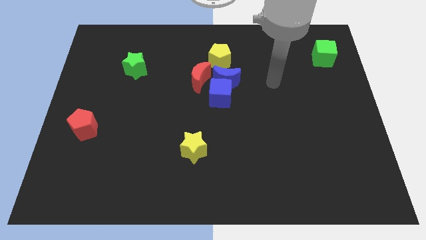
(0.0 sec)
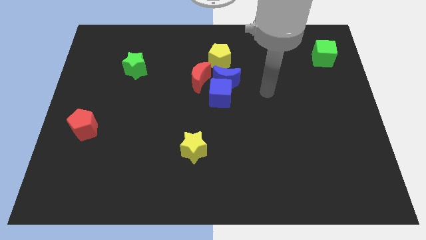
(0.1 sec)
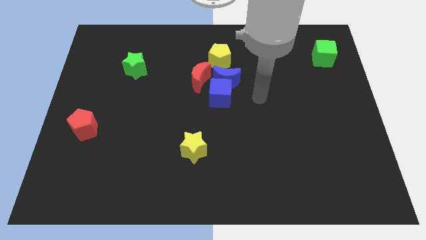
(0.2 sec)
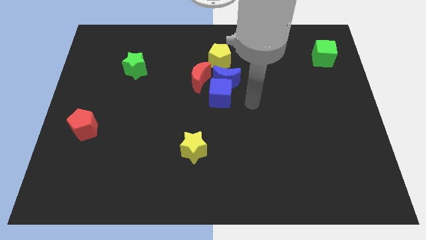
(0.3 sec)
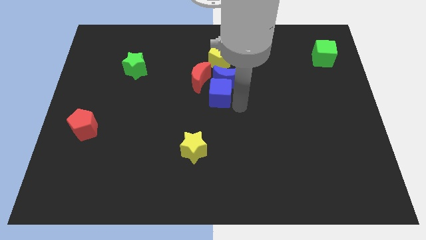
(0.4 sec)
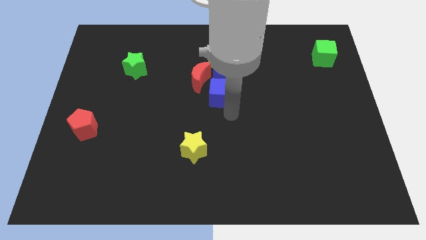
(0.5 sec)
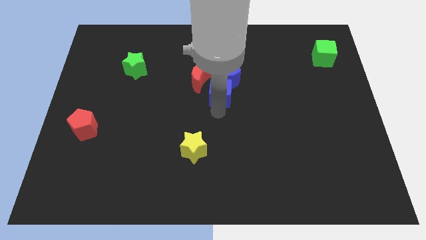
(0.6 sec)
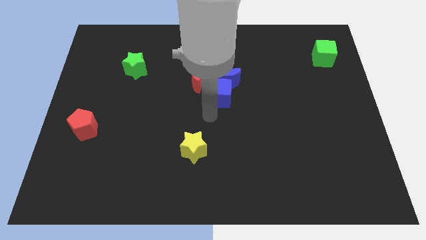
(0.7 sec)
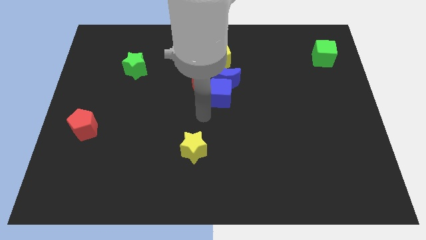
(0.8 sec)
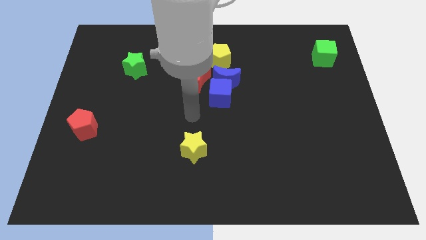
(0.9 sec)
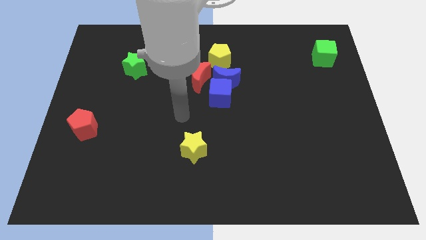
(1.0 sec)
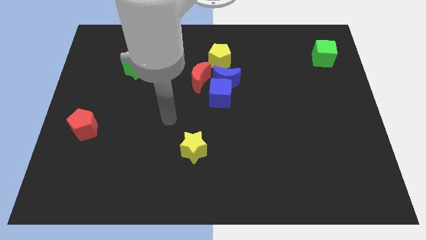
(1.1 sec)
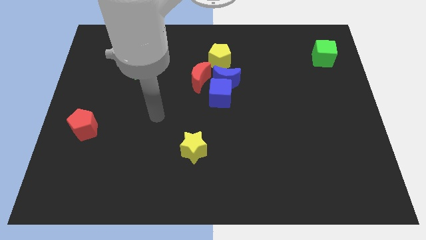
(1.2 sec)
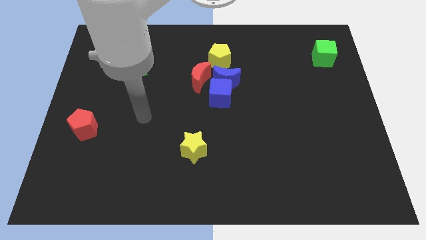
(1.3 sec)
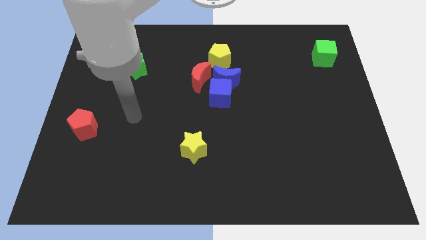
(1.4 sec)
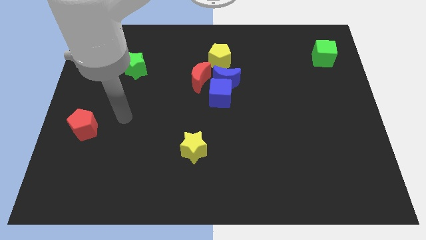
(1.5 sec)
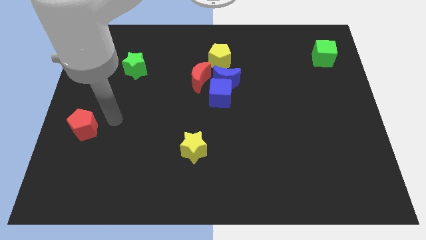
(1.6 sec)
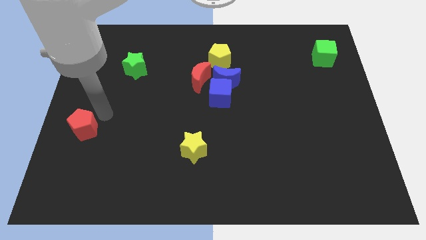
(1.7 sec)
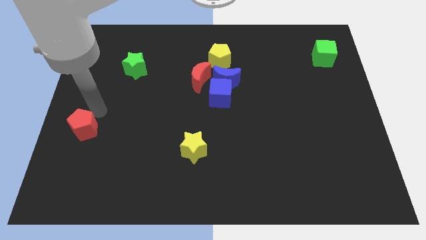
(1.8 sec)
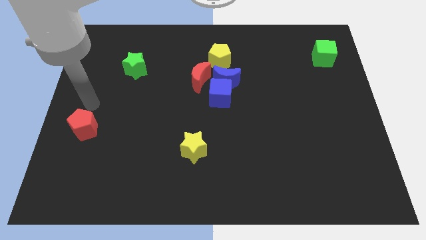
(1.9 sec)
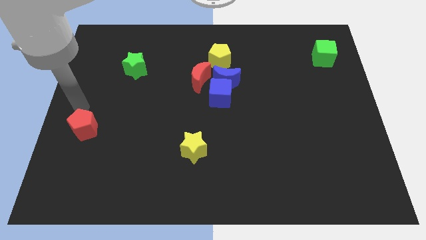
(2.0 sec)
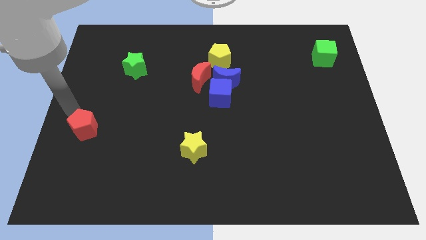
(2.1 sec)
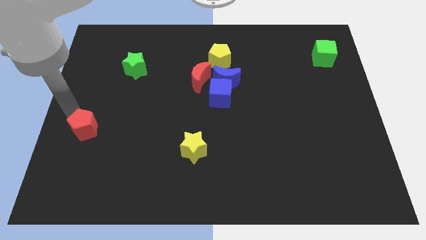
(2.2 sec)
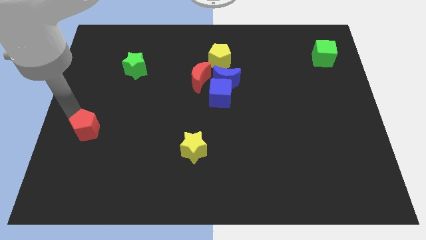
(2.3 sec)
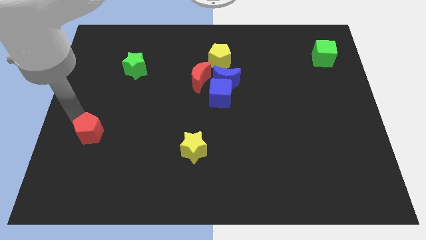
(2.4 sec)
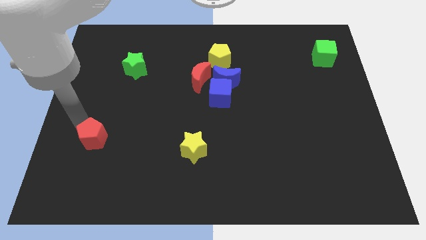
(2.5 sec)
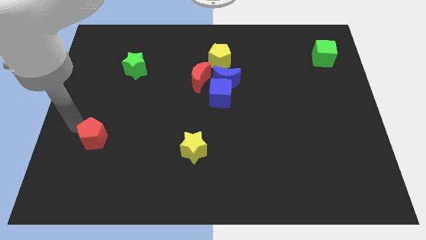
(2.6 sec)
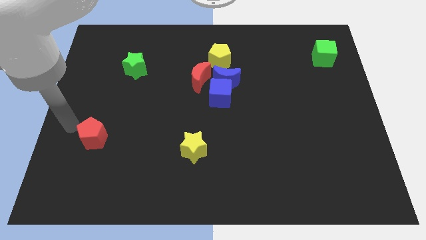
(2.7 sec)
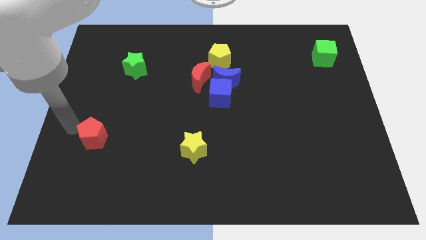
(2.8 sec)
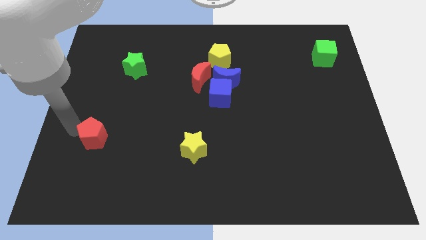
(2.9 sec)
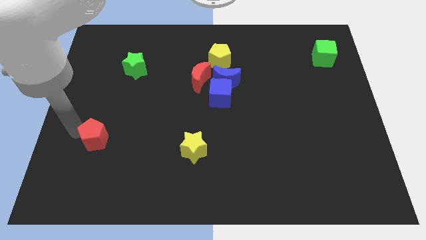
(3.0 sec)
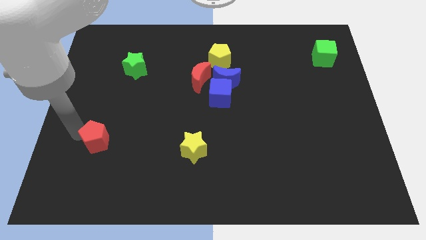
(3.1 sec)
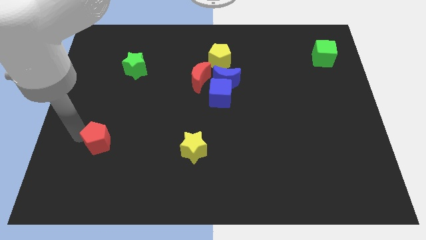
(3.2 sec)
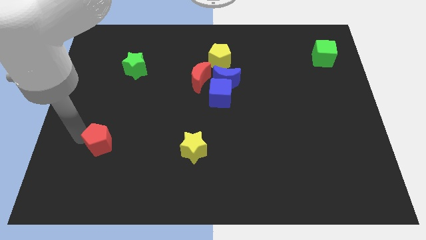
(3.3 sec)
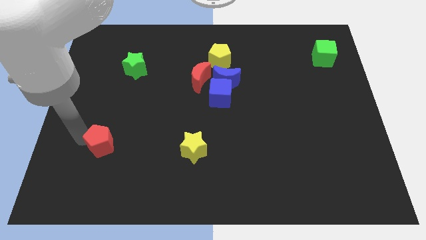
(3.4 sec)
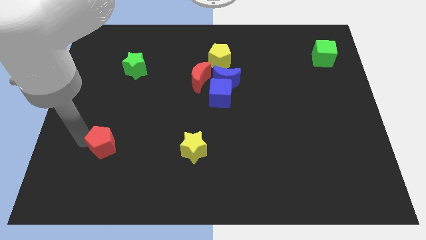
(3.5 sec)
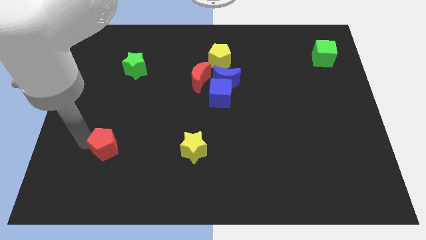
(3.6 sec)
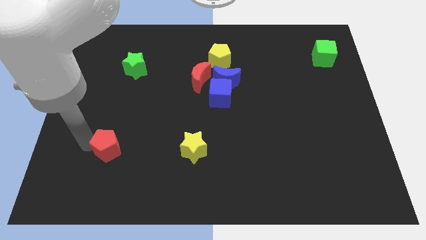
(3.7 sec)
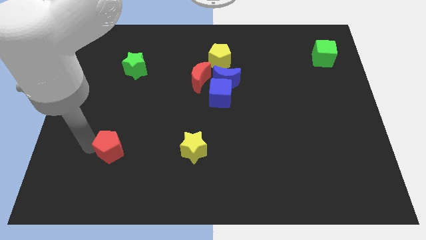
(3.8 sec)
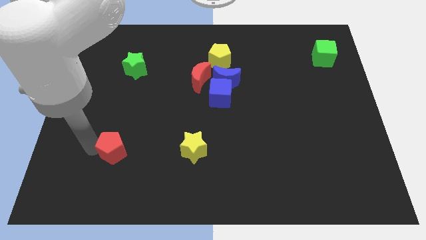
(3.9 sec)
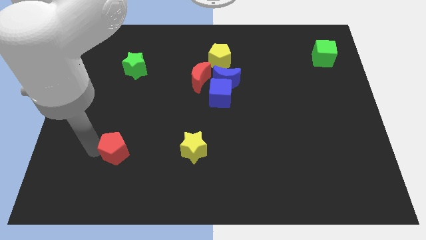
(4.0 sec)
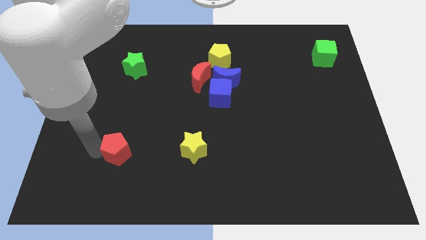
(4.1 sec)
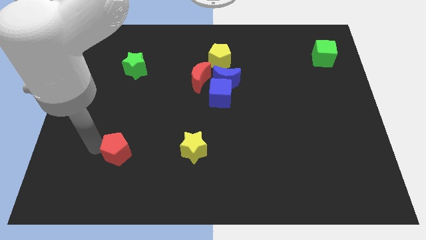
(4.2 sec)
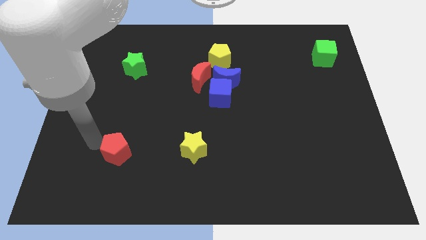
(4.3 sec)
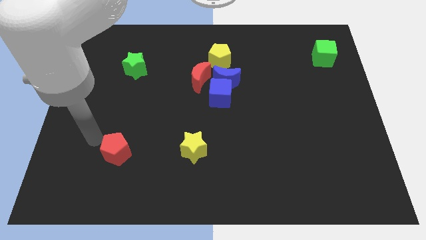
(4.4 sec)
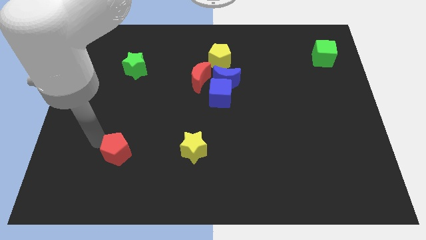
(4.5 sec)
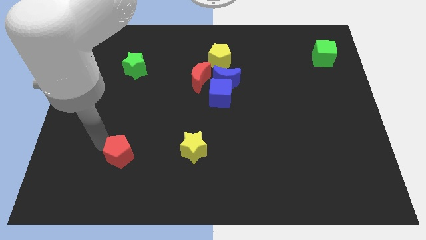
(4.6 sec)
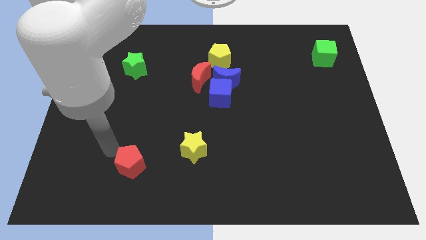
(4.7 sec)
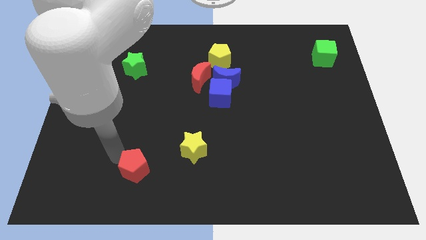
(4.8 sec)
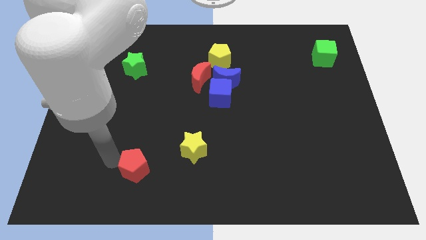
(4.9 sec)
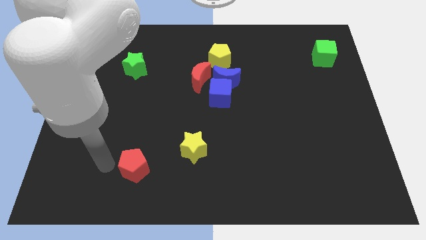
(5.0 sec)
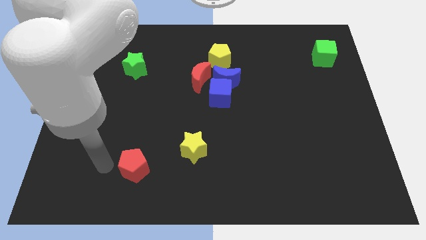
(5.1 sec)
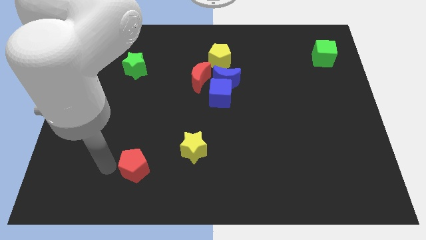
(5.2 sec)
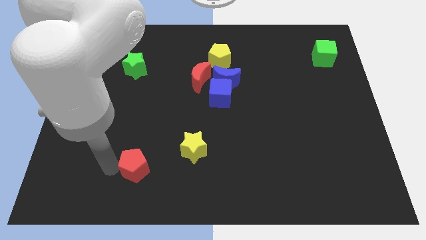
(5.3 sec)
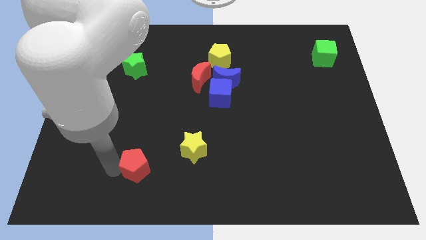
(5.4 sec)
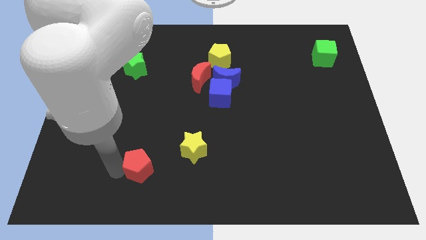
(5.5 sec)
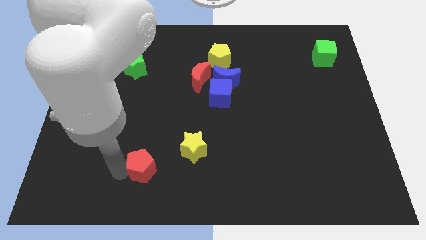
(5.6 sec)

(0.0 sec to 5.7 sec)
push the red pentagon diagonally down and to the left of the yellow star

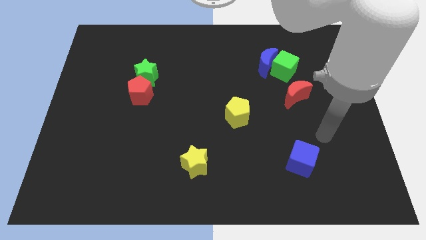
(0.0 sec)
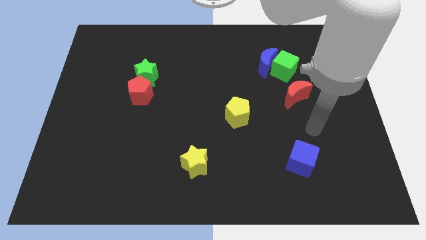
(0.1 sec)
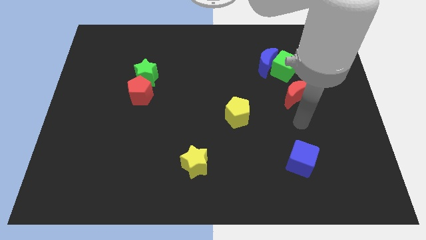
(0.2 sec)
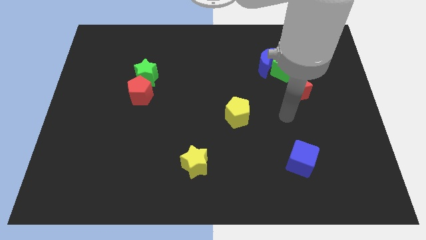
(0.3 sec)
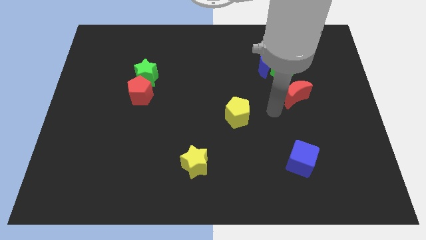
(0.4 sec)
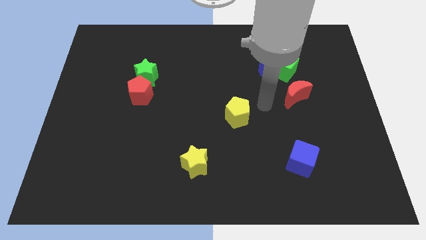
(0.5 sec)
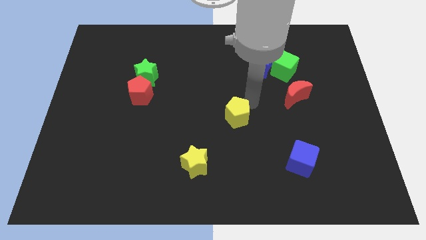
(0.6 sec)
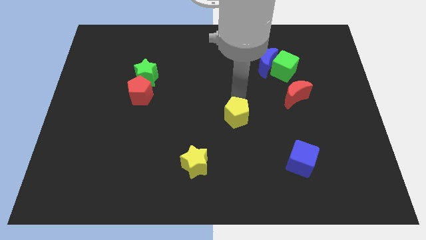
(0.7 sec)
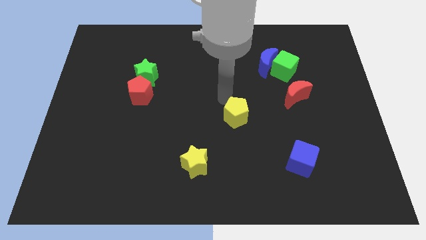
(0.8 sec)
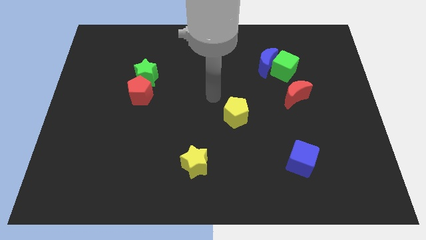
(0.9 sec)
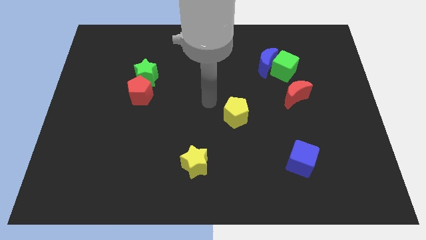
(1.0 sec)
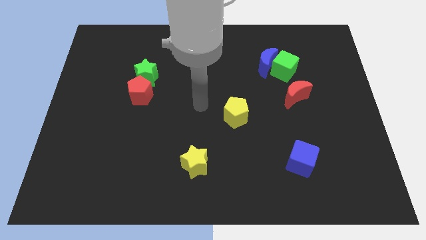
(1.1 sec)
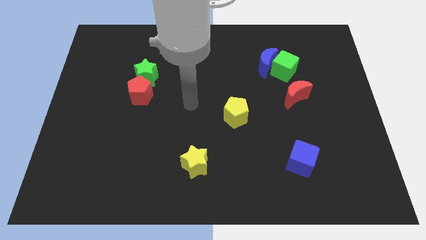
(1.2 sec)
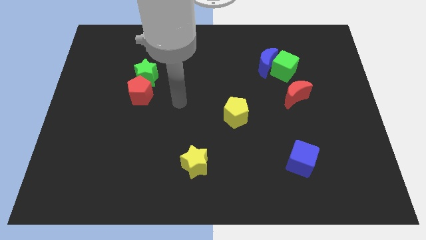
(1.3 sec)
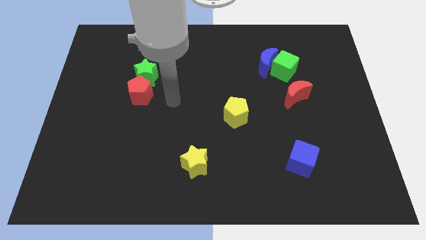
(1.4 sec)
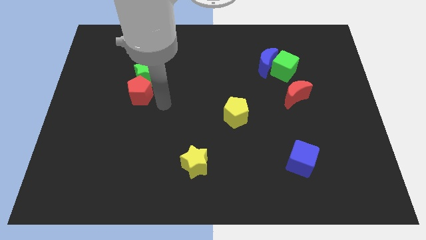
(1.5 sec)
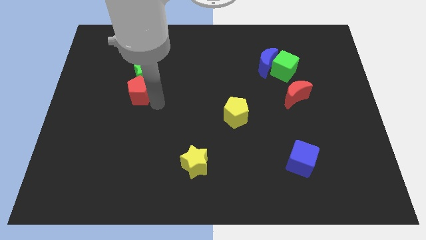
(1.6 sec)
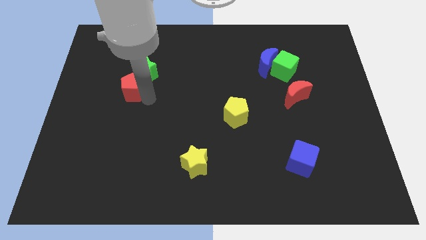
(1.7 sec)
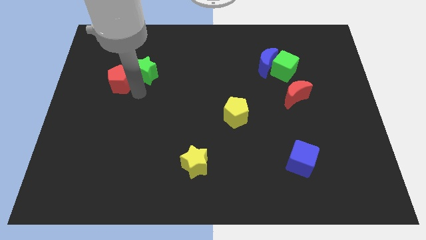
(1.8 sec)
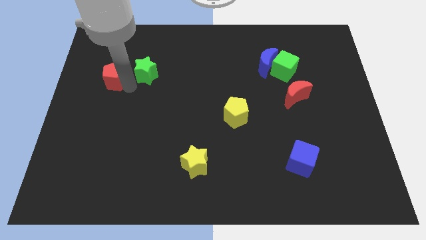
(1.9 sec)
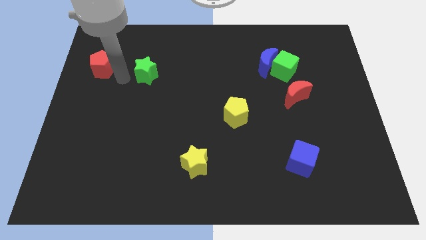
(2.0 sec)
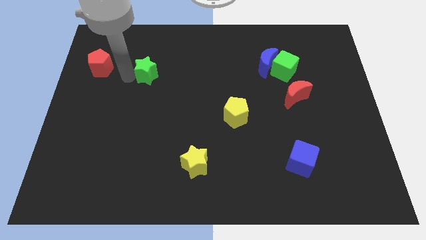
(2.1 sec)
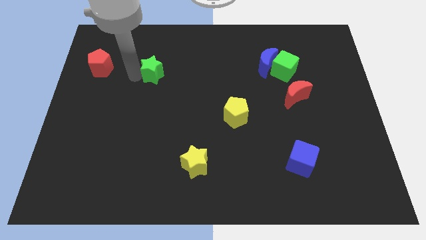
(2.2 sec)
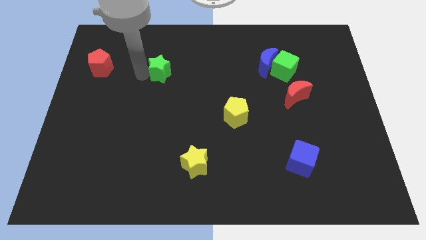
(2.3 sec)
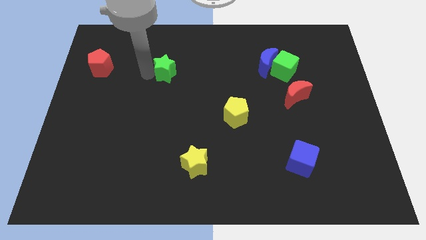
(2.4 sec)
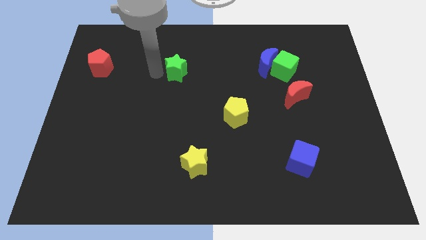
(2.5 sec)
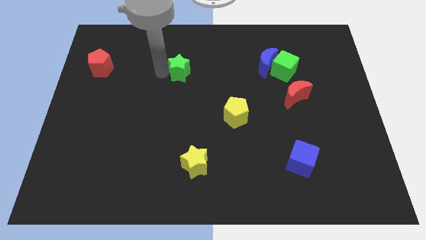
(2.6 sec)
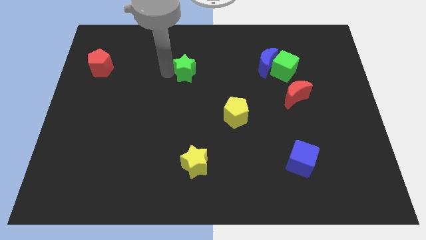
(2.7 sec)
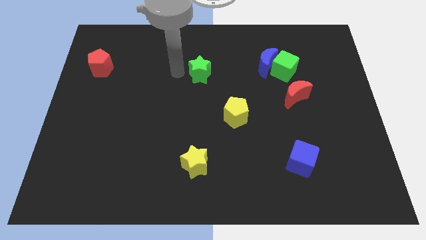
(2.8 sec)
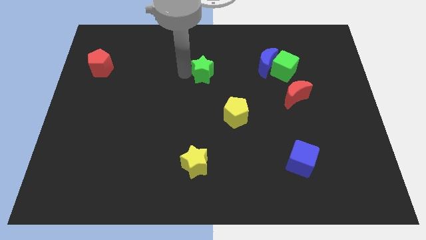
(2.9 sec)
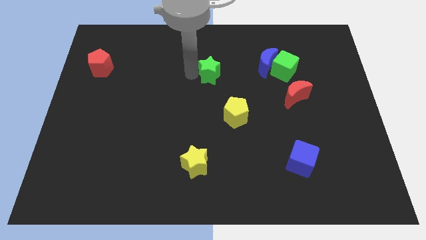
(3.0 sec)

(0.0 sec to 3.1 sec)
put the green star to the left side of the blue moon
